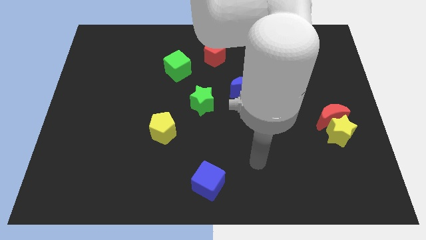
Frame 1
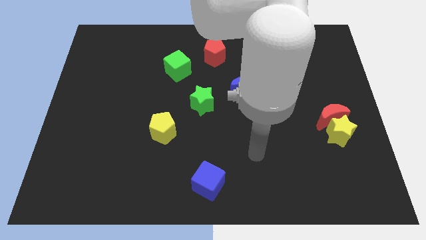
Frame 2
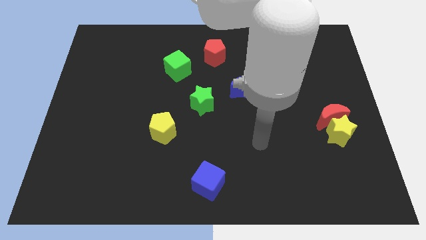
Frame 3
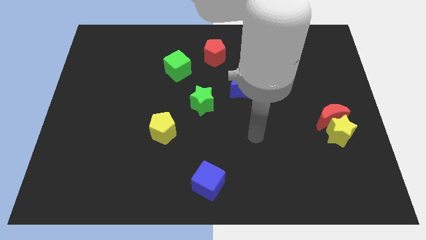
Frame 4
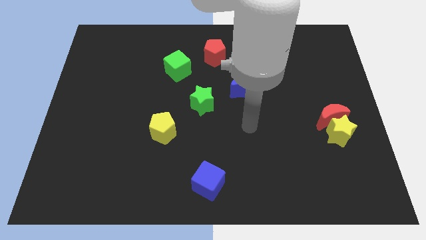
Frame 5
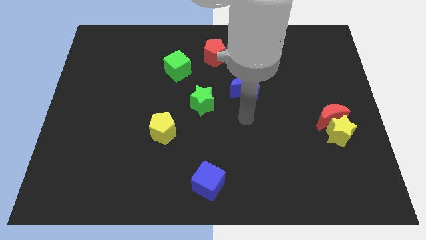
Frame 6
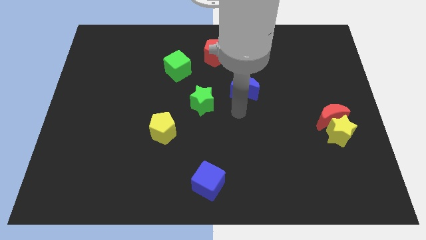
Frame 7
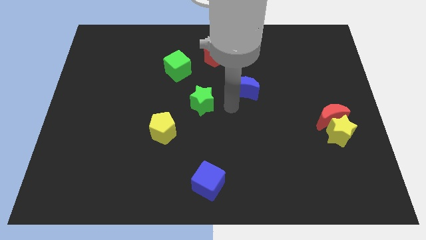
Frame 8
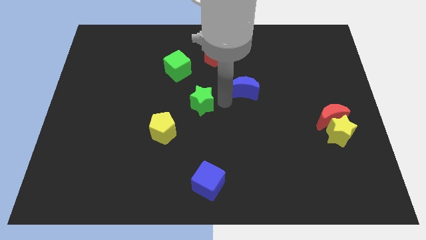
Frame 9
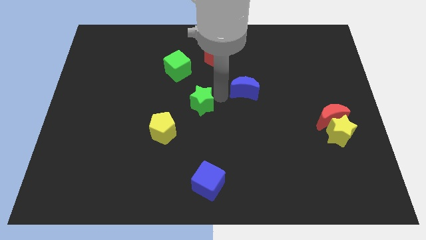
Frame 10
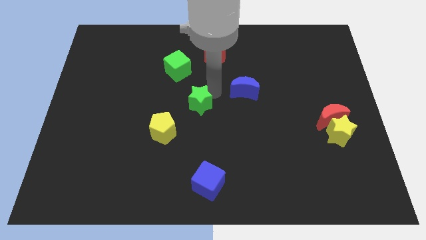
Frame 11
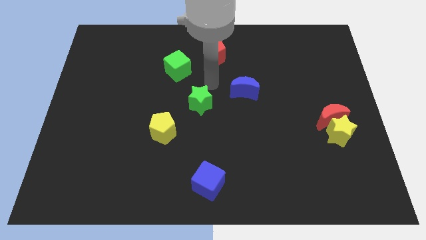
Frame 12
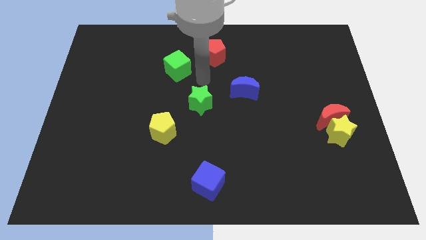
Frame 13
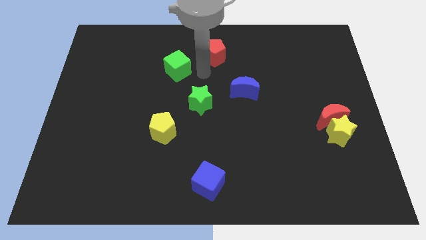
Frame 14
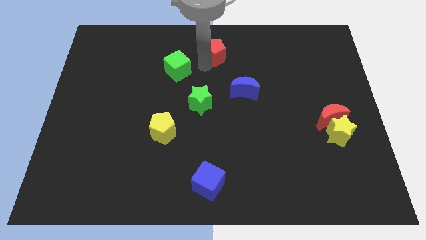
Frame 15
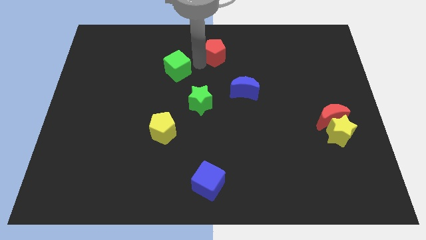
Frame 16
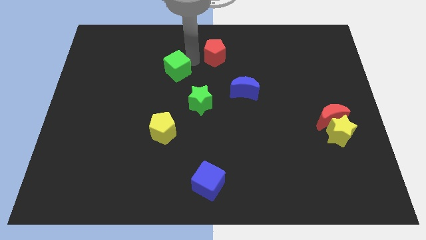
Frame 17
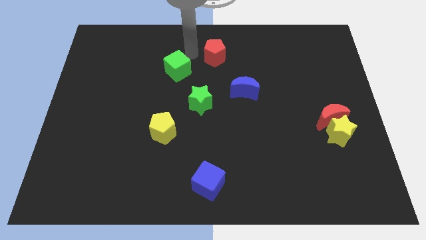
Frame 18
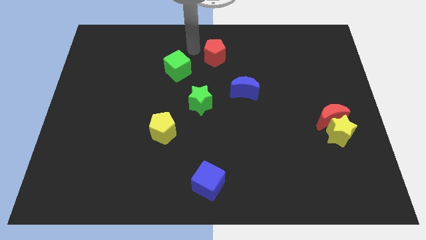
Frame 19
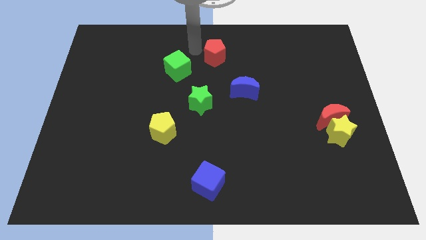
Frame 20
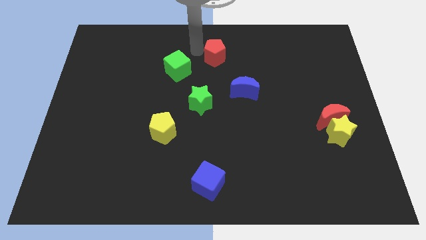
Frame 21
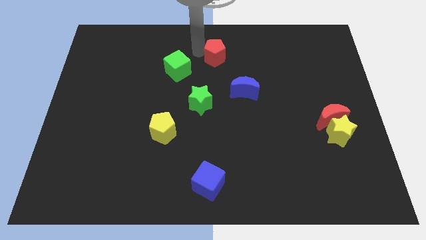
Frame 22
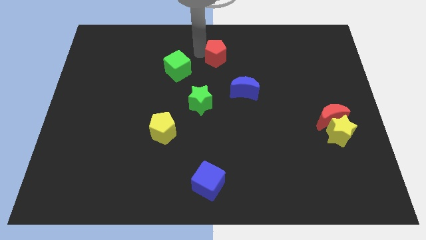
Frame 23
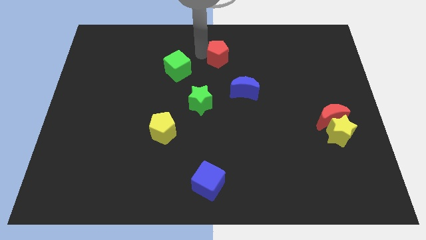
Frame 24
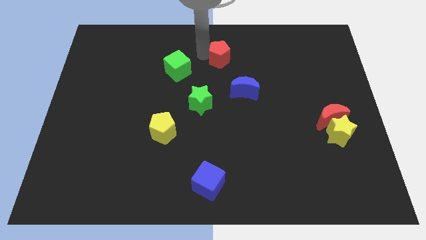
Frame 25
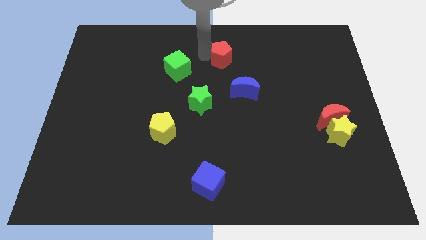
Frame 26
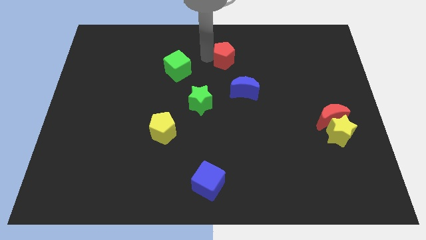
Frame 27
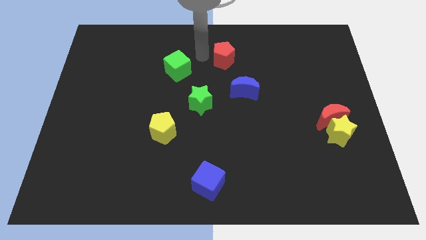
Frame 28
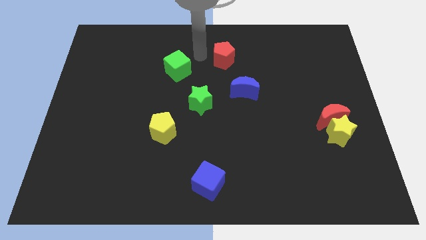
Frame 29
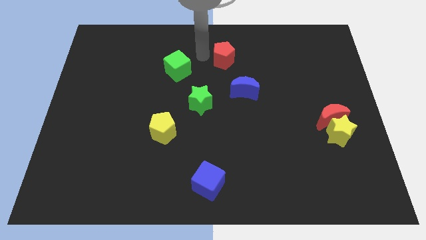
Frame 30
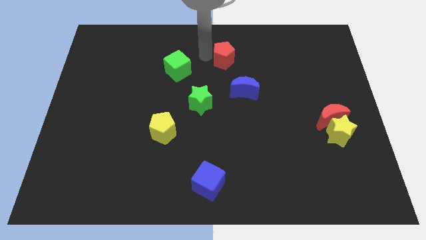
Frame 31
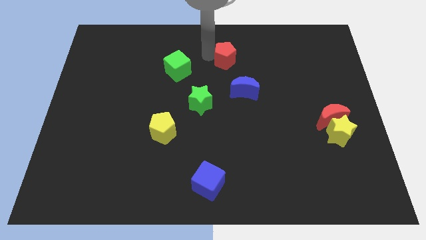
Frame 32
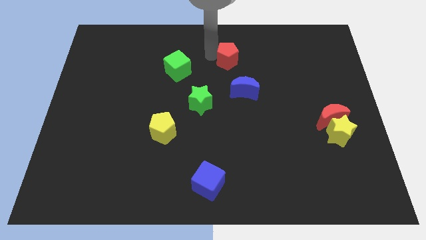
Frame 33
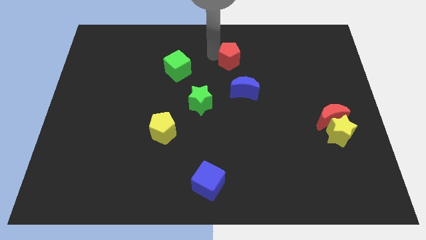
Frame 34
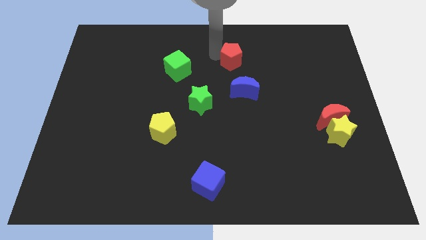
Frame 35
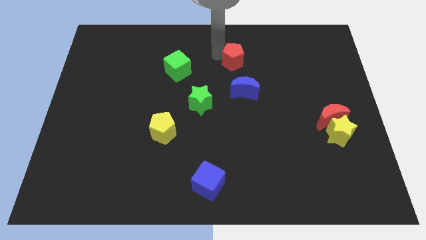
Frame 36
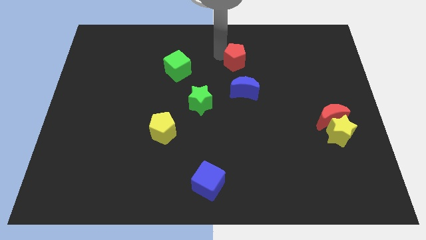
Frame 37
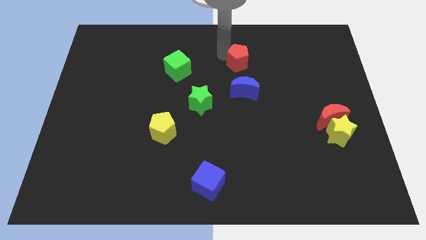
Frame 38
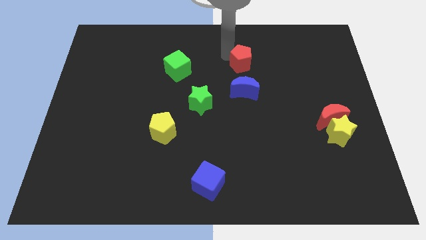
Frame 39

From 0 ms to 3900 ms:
move the red pentagon somewhat to the right

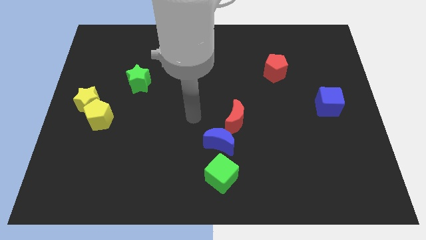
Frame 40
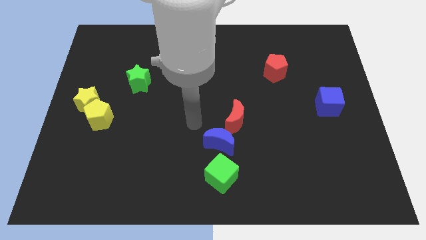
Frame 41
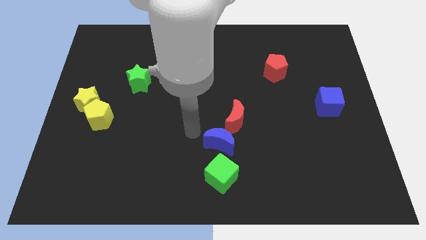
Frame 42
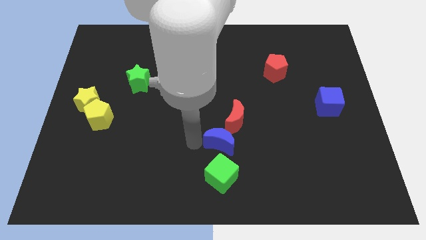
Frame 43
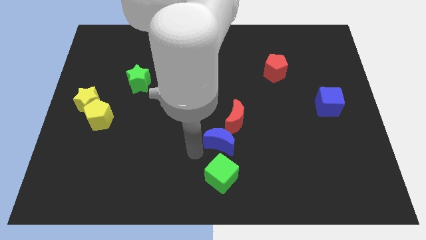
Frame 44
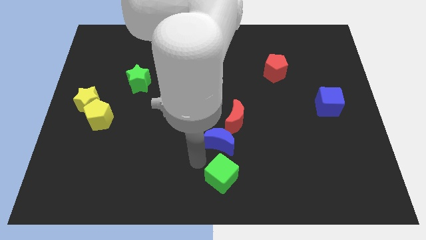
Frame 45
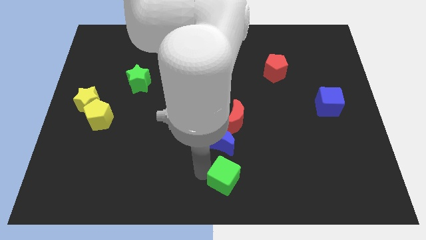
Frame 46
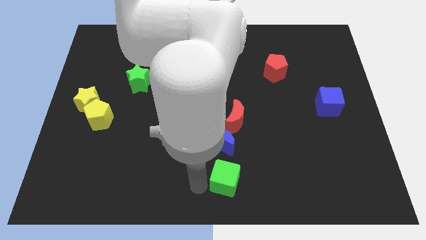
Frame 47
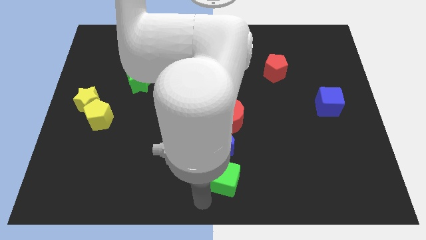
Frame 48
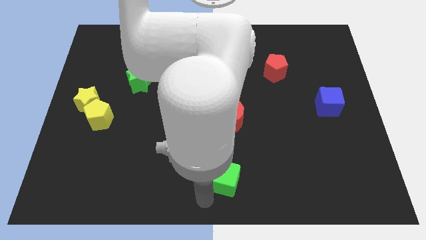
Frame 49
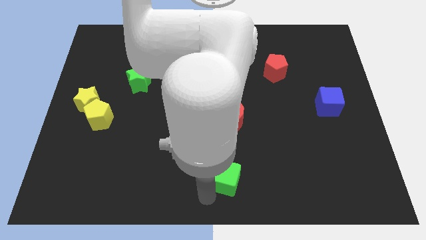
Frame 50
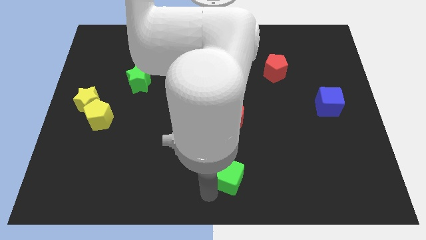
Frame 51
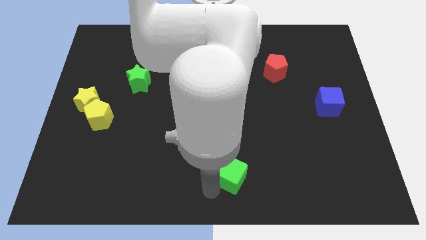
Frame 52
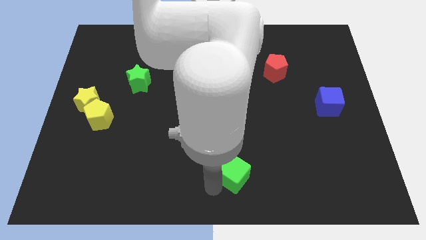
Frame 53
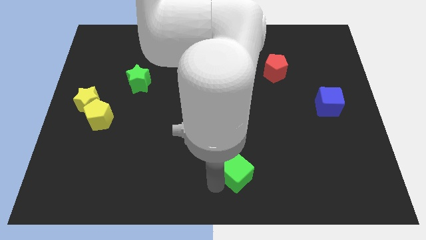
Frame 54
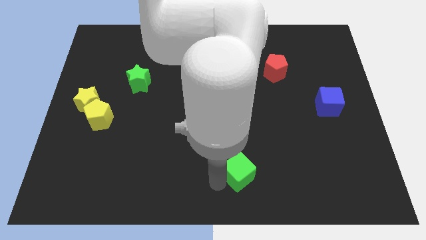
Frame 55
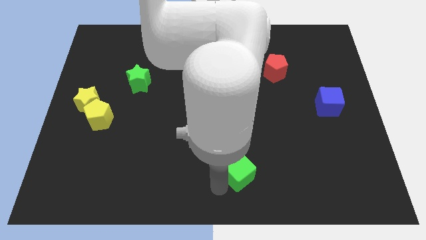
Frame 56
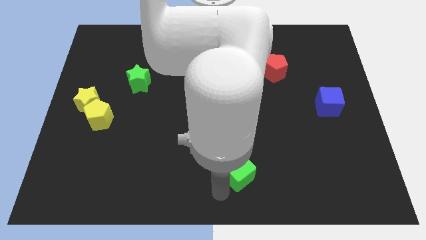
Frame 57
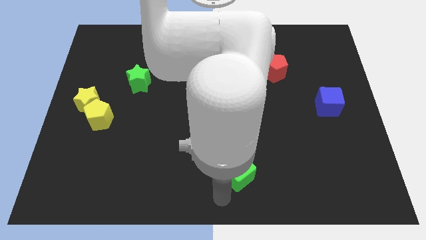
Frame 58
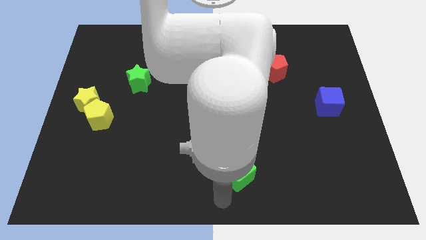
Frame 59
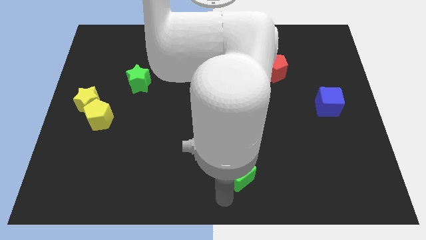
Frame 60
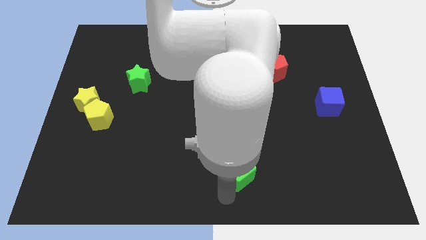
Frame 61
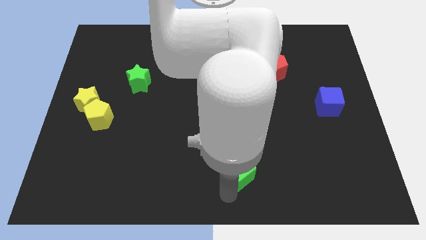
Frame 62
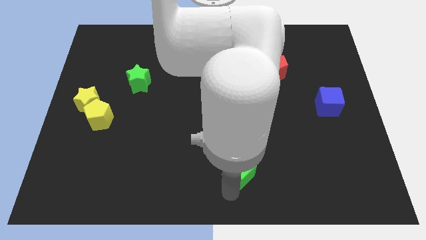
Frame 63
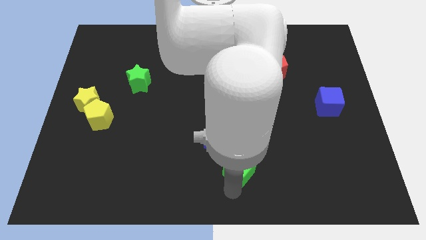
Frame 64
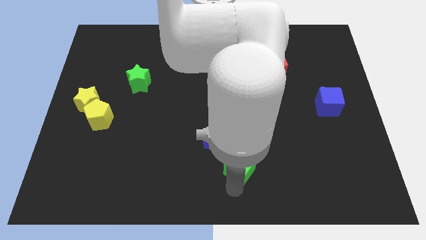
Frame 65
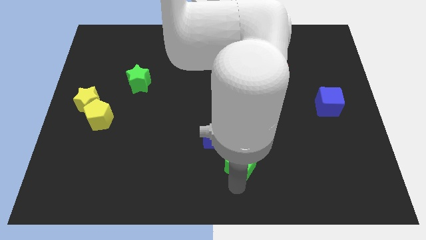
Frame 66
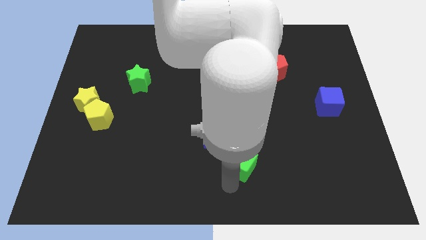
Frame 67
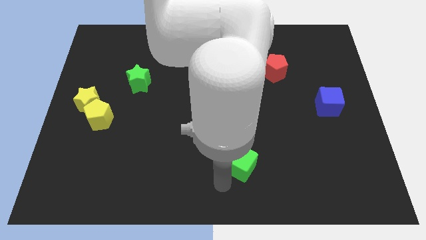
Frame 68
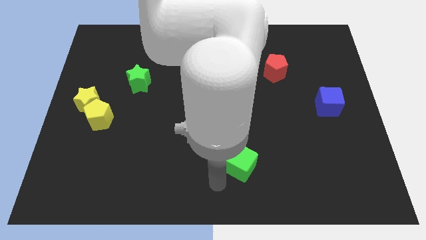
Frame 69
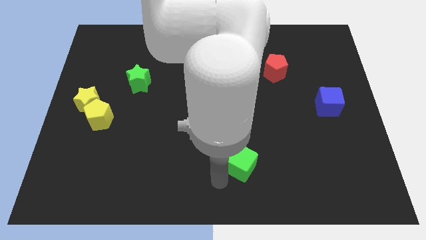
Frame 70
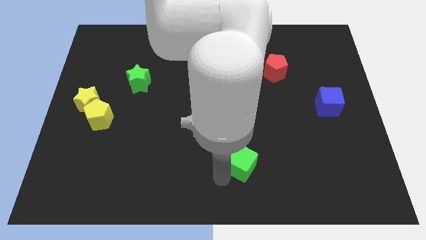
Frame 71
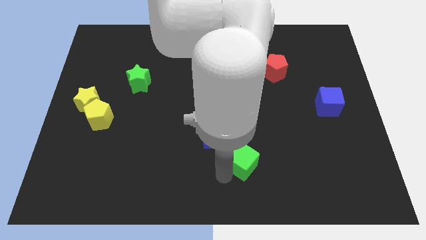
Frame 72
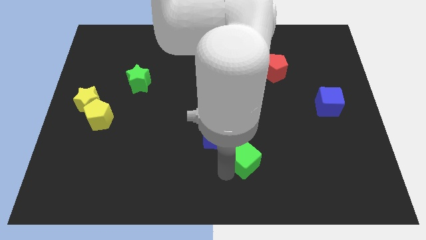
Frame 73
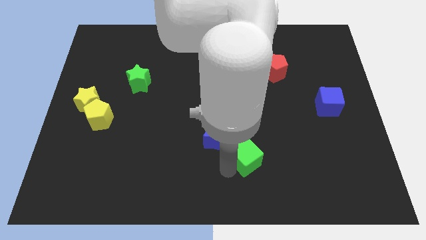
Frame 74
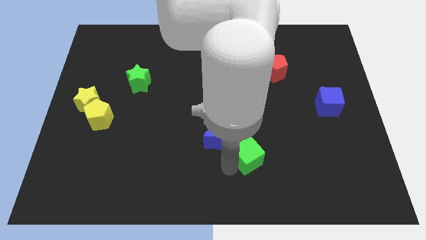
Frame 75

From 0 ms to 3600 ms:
push the green cube upwards and then to the right a bit

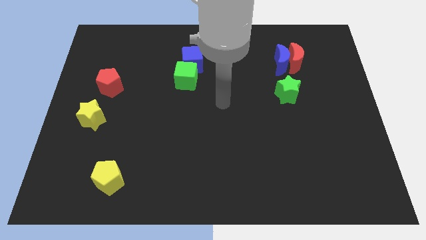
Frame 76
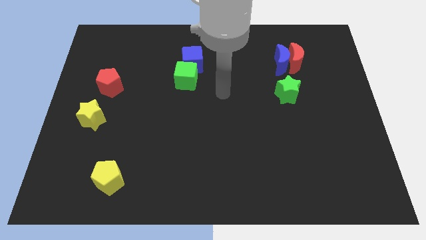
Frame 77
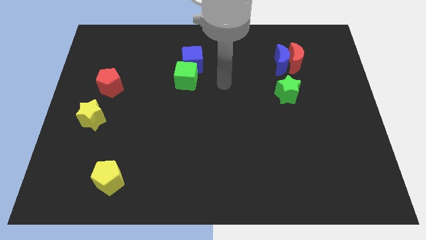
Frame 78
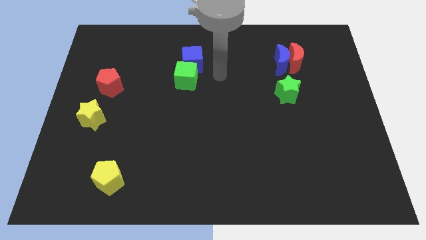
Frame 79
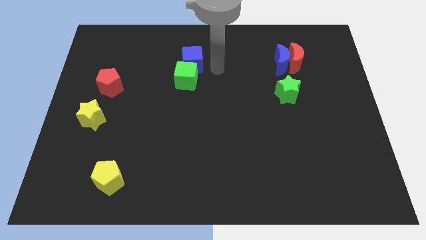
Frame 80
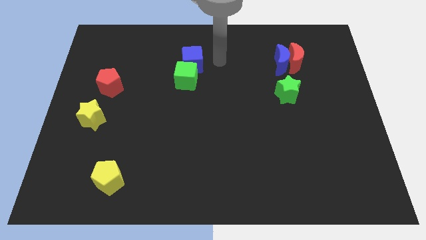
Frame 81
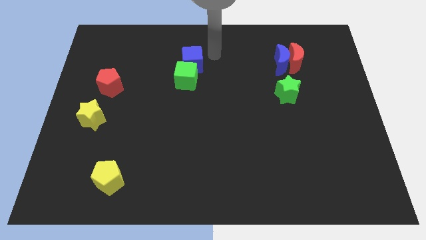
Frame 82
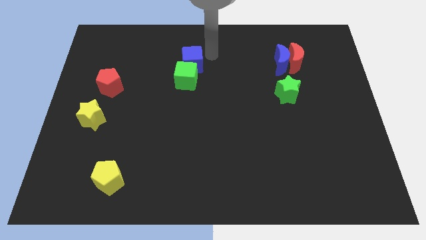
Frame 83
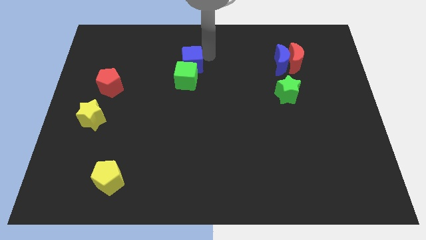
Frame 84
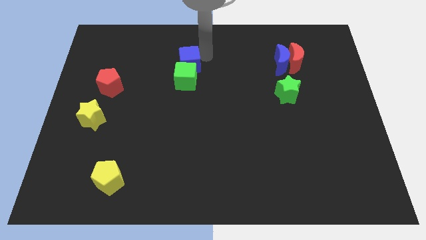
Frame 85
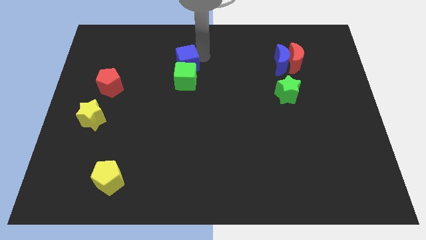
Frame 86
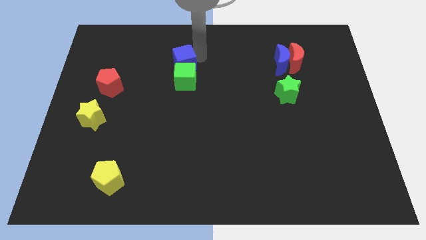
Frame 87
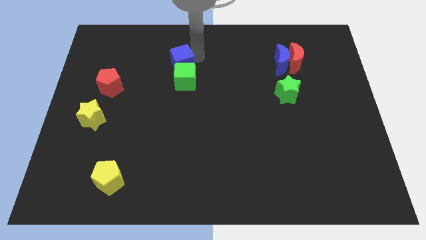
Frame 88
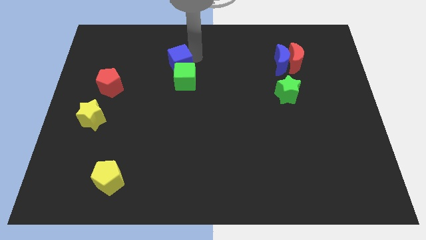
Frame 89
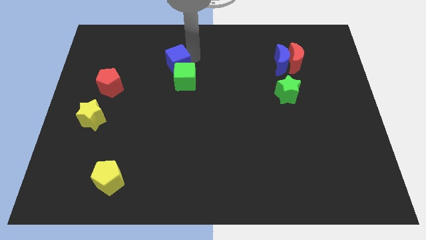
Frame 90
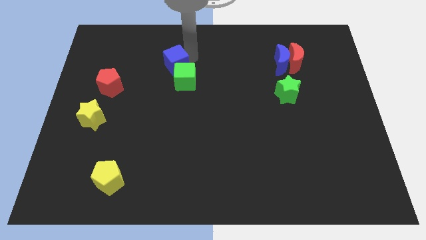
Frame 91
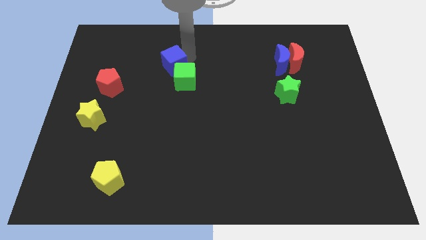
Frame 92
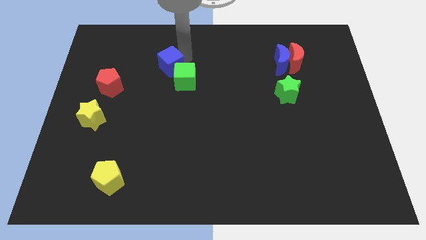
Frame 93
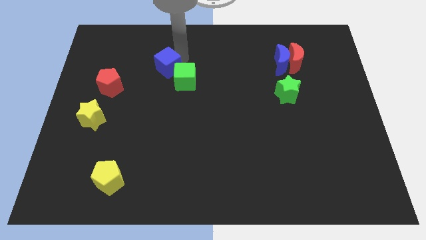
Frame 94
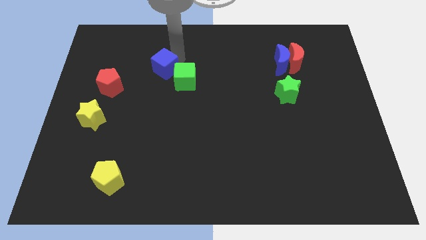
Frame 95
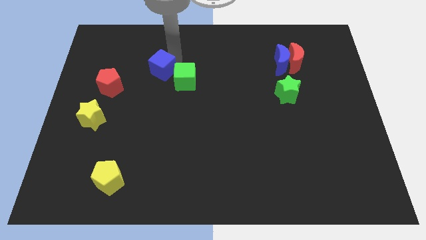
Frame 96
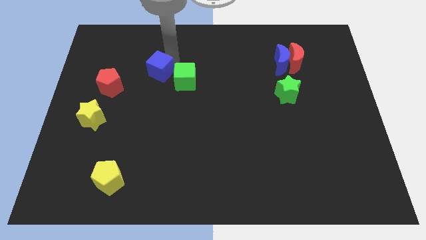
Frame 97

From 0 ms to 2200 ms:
slide the blue cube a little bit downwards and left
